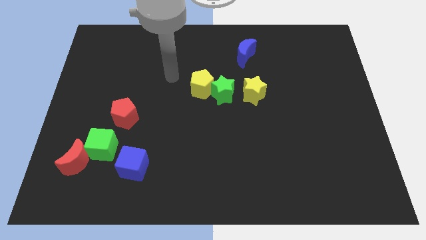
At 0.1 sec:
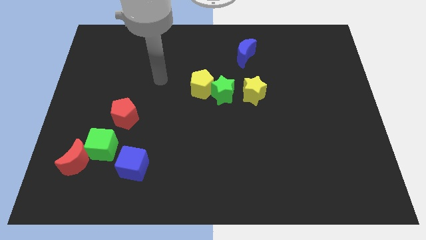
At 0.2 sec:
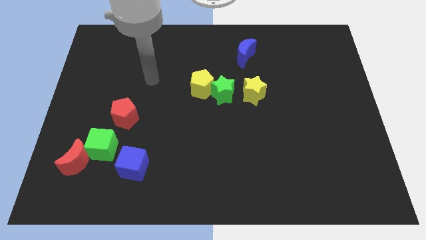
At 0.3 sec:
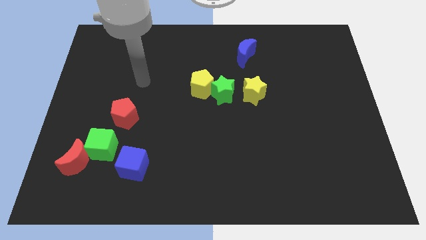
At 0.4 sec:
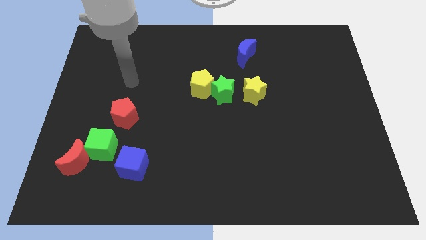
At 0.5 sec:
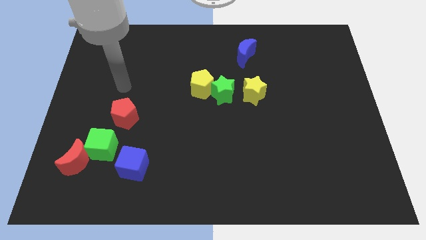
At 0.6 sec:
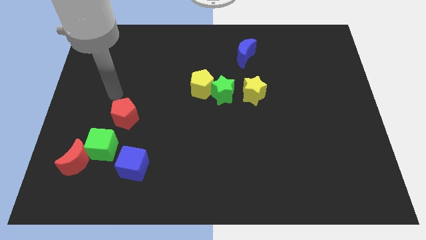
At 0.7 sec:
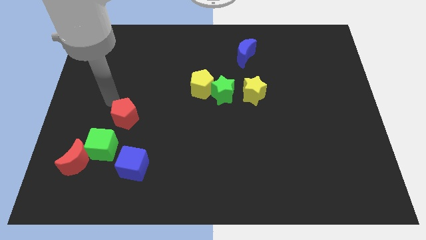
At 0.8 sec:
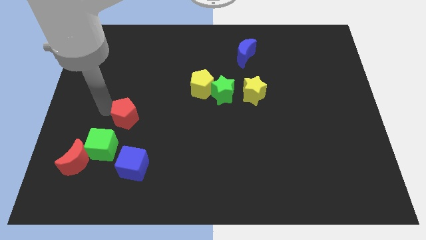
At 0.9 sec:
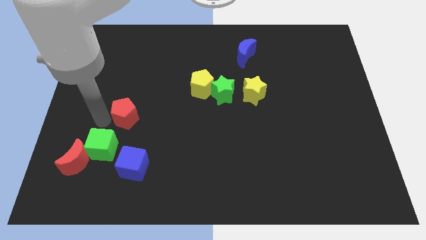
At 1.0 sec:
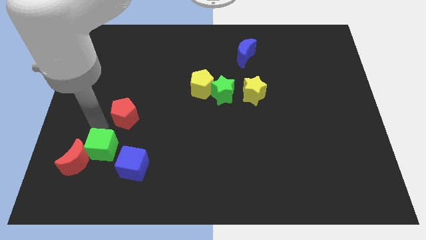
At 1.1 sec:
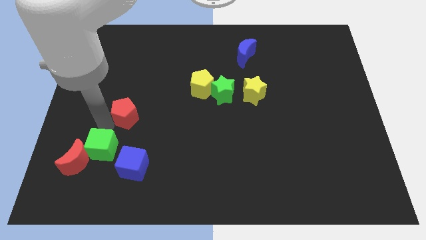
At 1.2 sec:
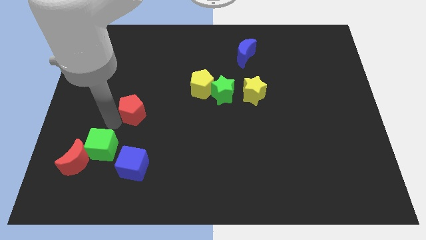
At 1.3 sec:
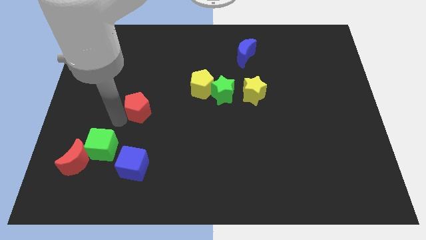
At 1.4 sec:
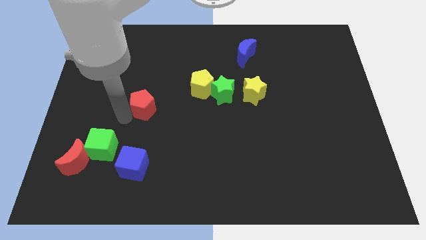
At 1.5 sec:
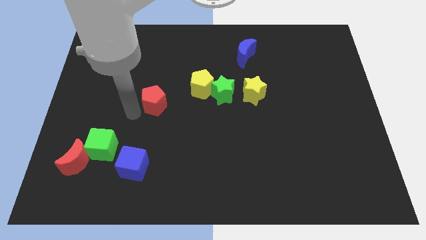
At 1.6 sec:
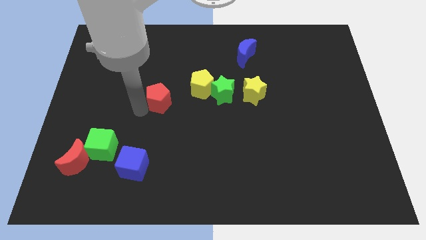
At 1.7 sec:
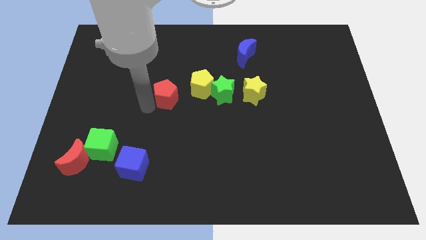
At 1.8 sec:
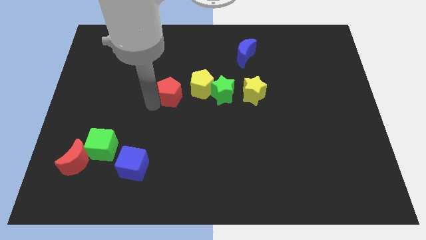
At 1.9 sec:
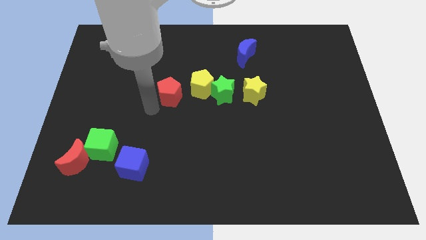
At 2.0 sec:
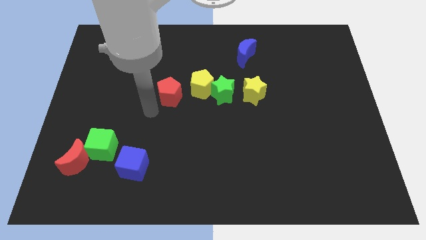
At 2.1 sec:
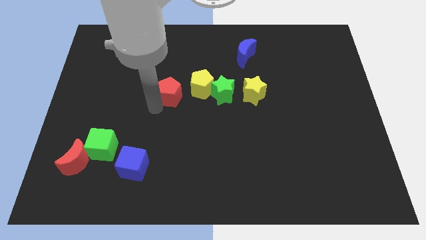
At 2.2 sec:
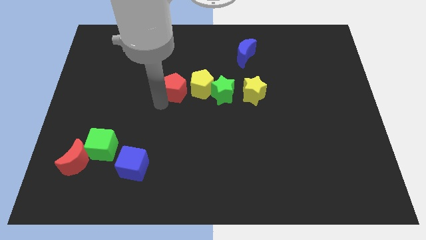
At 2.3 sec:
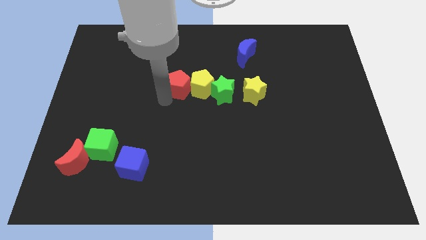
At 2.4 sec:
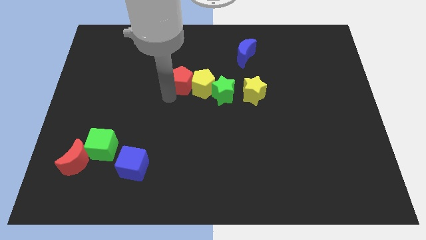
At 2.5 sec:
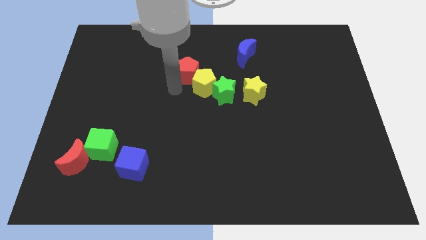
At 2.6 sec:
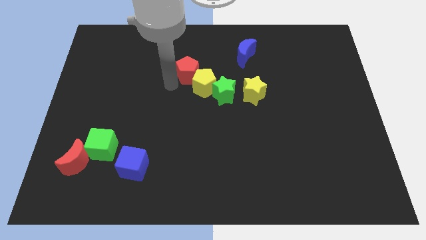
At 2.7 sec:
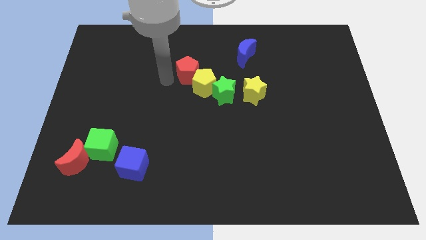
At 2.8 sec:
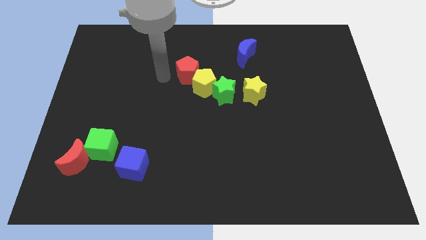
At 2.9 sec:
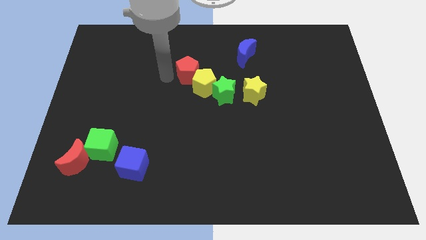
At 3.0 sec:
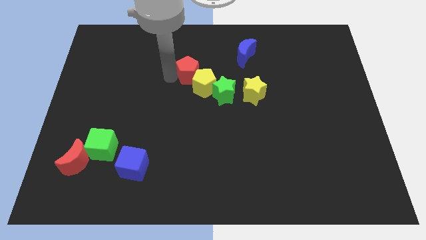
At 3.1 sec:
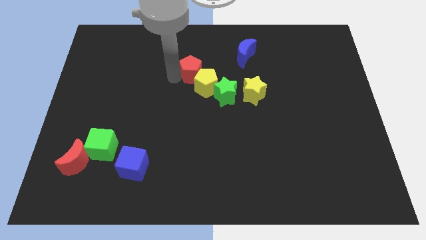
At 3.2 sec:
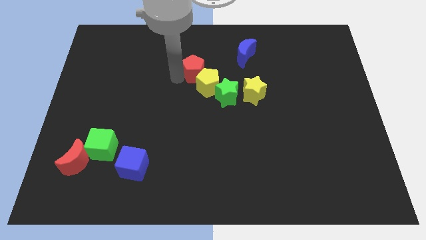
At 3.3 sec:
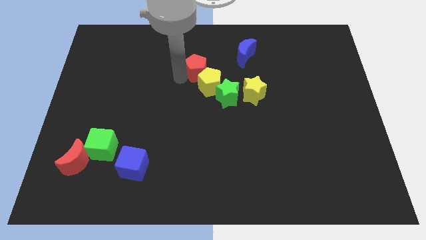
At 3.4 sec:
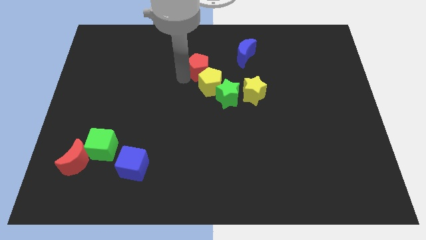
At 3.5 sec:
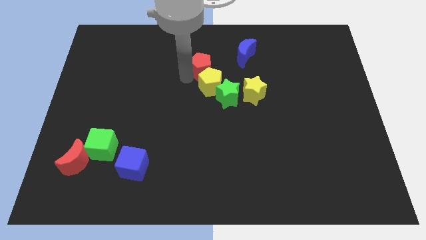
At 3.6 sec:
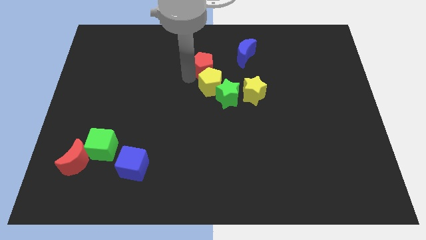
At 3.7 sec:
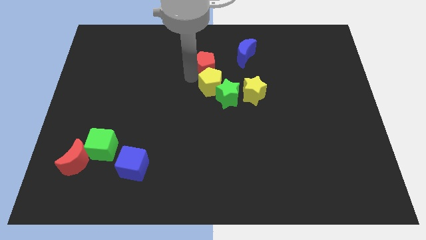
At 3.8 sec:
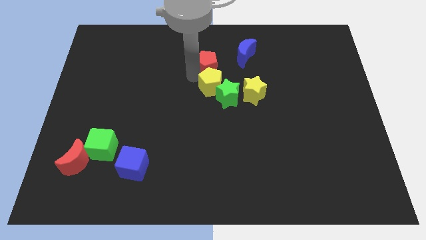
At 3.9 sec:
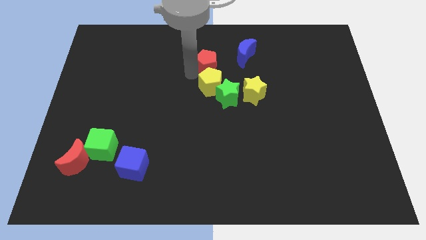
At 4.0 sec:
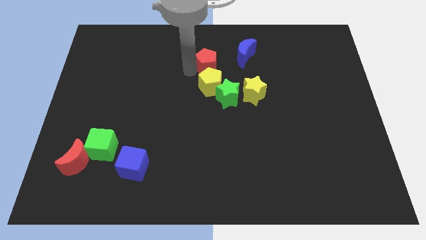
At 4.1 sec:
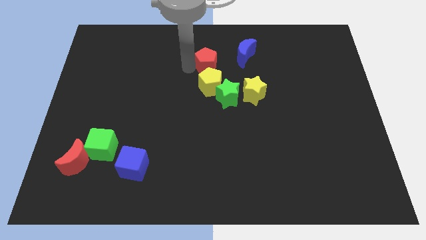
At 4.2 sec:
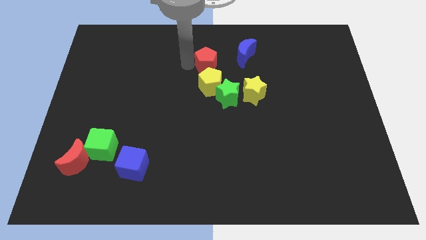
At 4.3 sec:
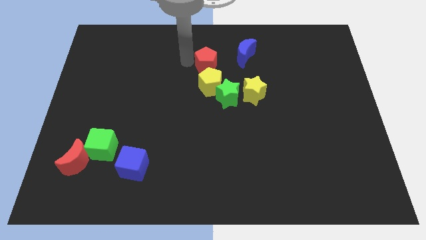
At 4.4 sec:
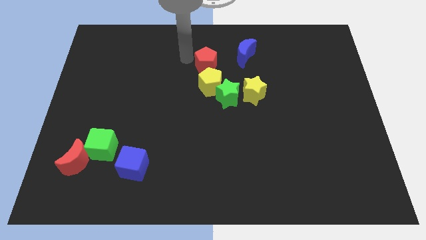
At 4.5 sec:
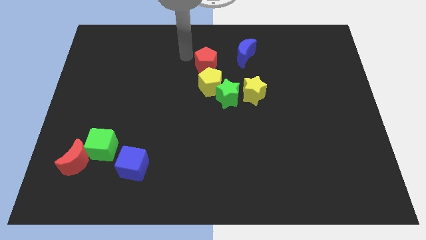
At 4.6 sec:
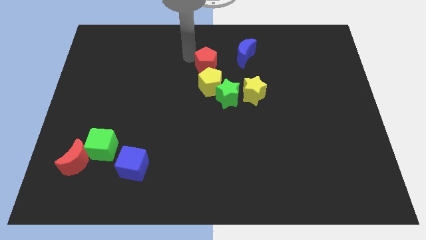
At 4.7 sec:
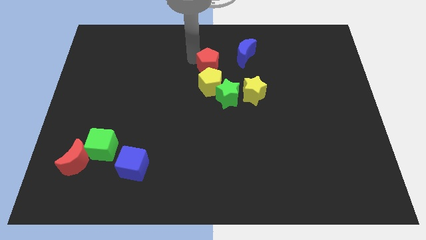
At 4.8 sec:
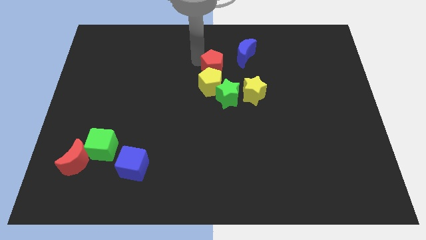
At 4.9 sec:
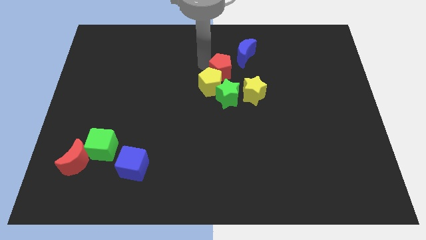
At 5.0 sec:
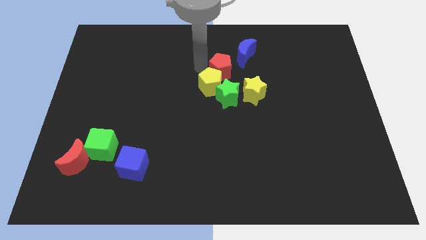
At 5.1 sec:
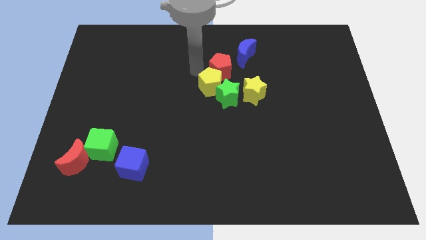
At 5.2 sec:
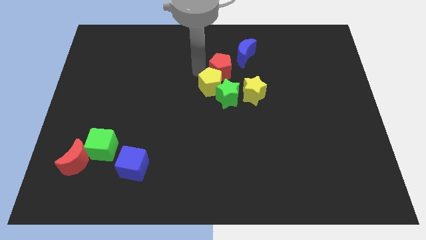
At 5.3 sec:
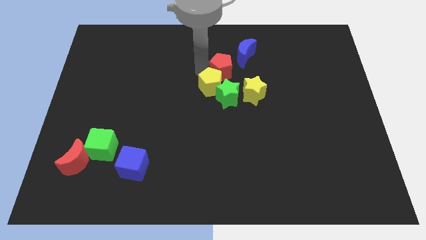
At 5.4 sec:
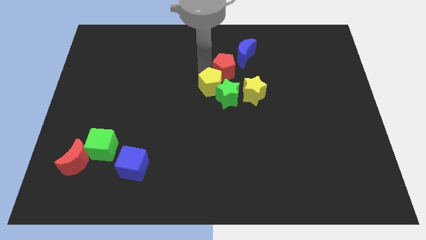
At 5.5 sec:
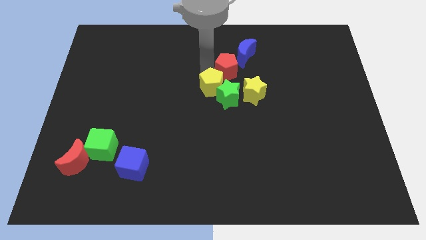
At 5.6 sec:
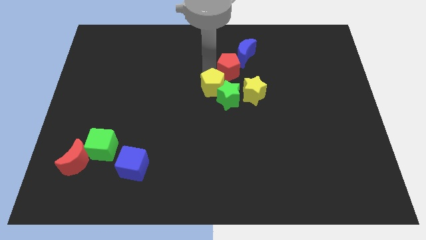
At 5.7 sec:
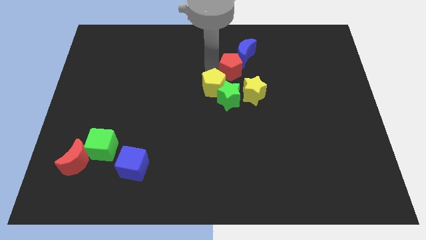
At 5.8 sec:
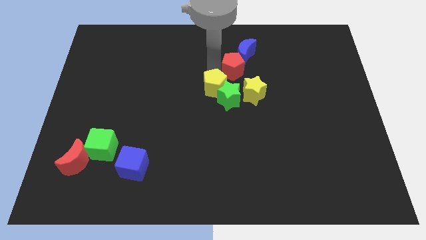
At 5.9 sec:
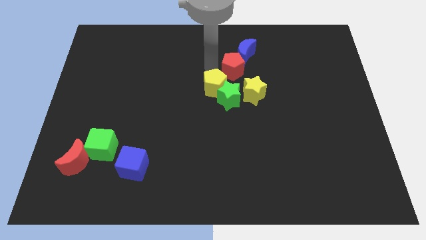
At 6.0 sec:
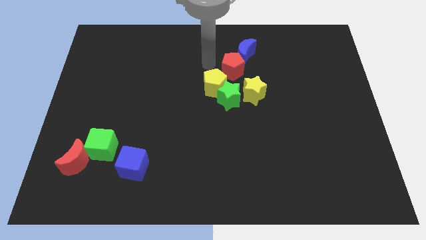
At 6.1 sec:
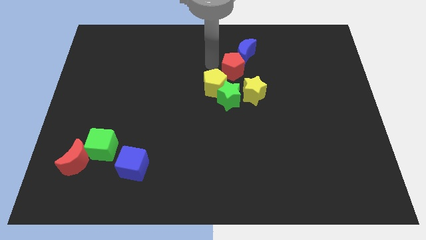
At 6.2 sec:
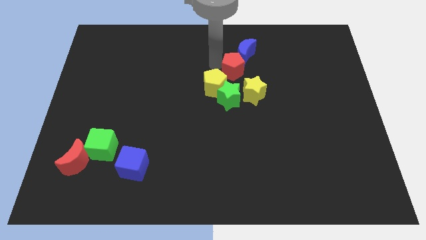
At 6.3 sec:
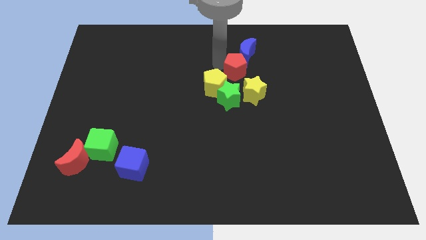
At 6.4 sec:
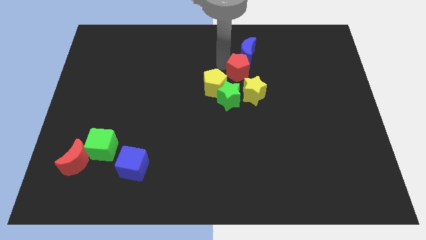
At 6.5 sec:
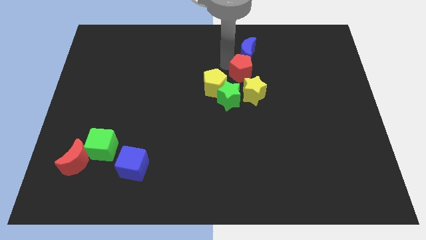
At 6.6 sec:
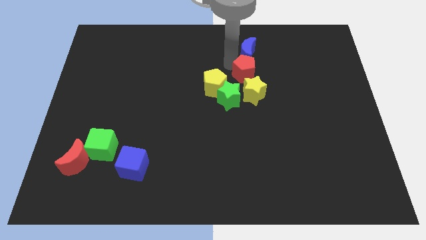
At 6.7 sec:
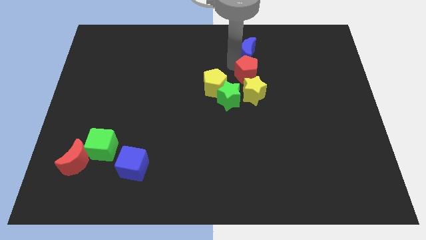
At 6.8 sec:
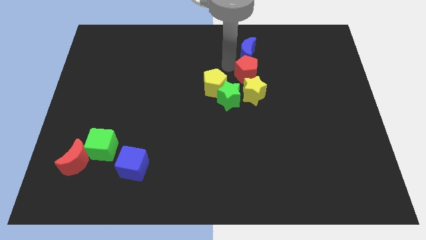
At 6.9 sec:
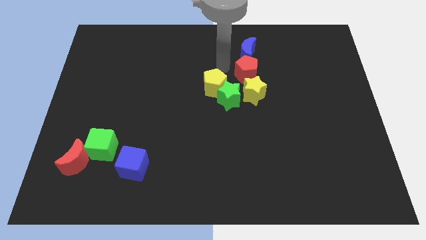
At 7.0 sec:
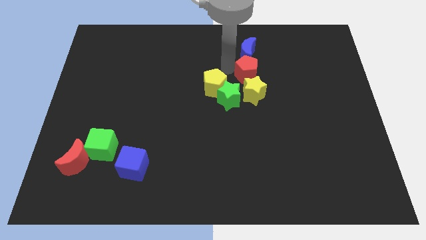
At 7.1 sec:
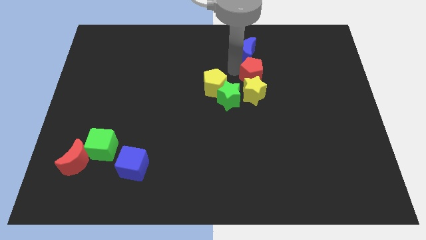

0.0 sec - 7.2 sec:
move the red pentagon to the top right of the yellow star
